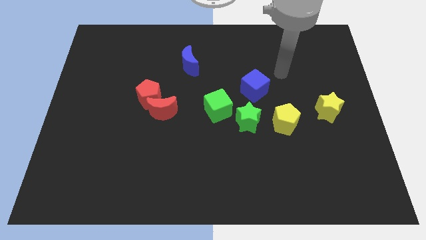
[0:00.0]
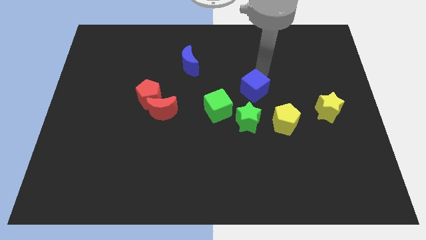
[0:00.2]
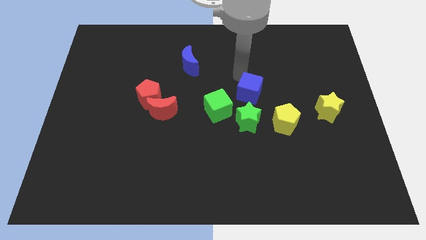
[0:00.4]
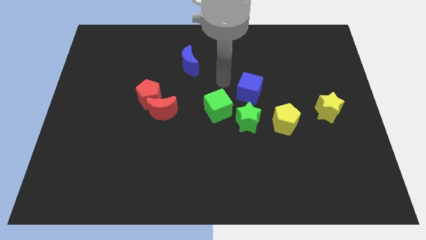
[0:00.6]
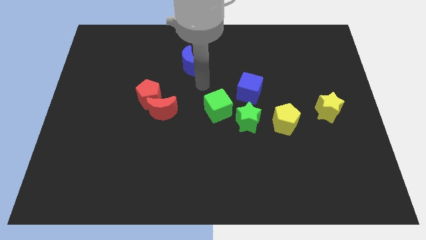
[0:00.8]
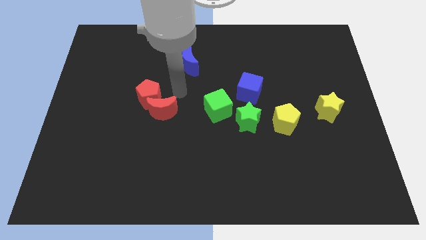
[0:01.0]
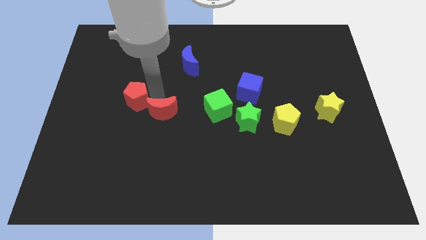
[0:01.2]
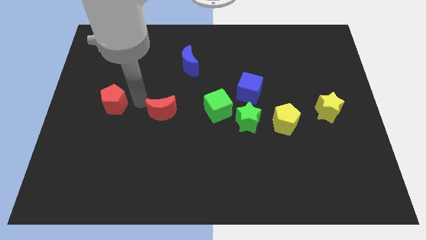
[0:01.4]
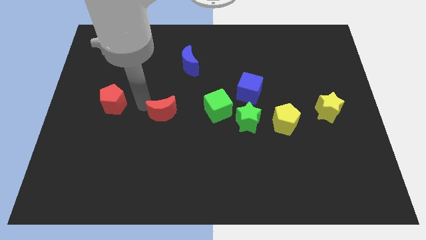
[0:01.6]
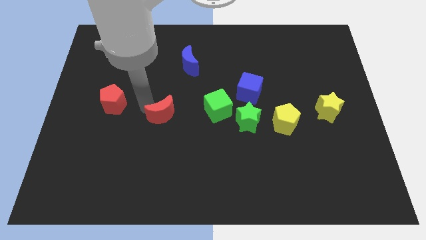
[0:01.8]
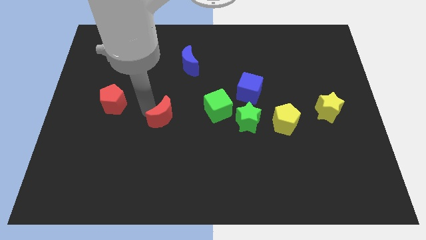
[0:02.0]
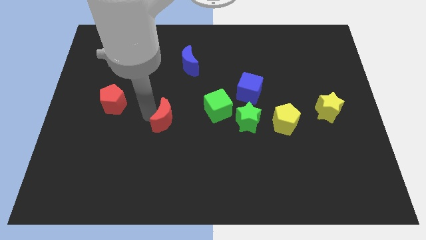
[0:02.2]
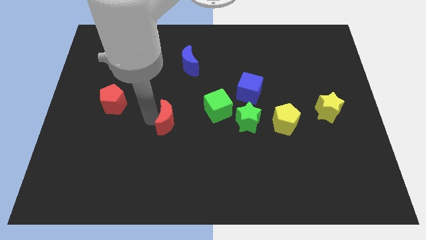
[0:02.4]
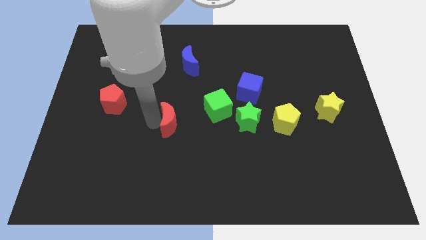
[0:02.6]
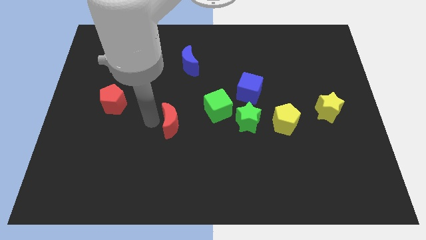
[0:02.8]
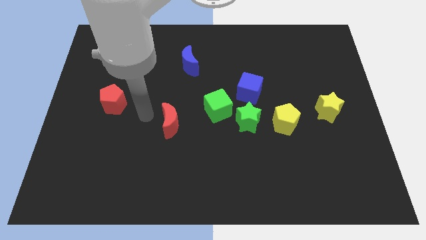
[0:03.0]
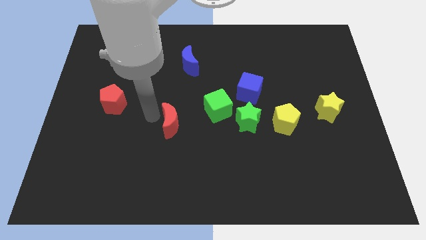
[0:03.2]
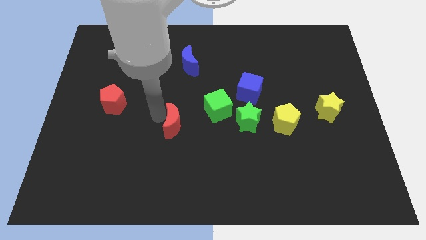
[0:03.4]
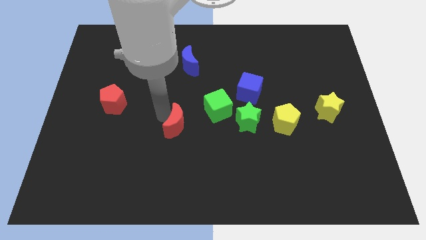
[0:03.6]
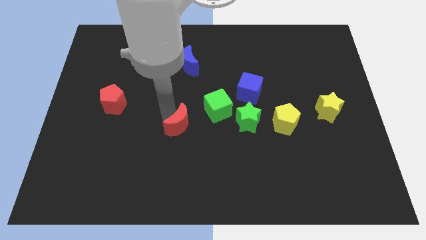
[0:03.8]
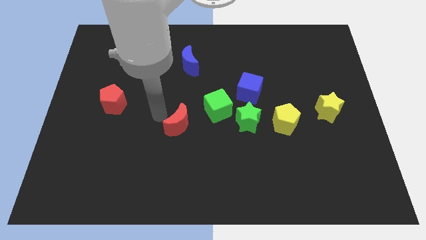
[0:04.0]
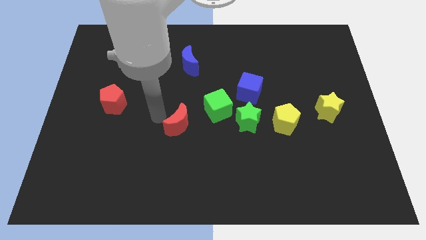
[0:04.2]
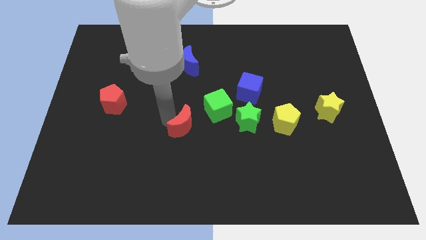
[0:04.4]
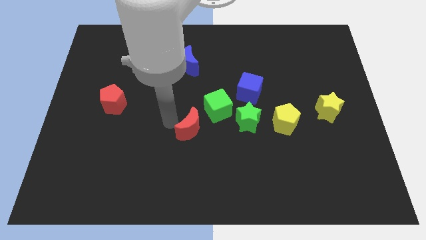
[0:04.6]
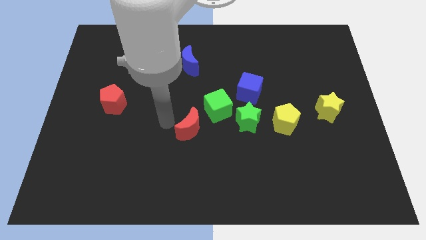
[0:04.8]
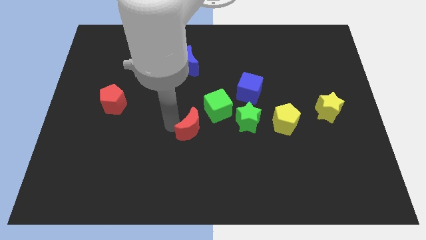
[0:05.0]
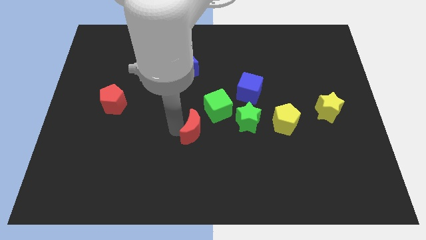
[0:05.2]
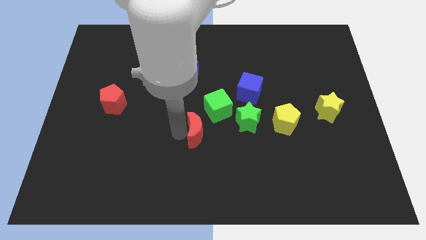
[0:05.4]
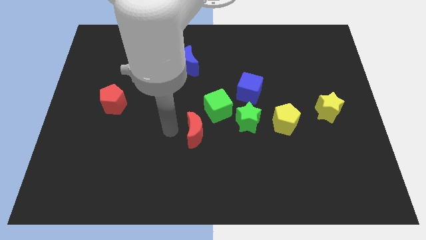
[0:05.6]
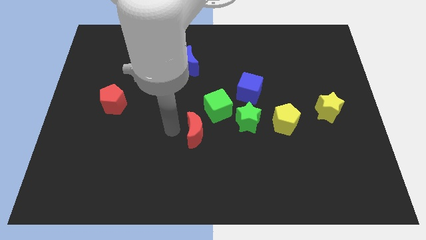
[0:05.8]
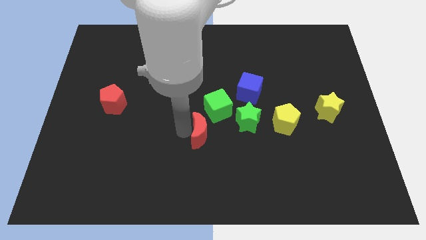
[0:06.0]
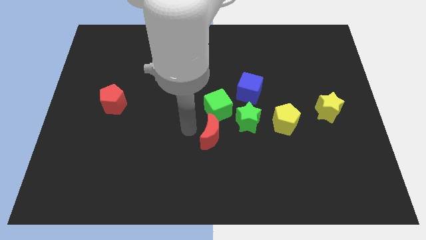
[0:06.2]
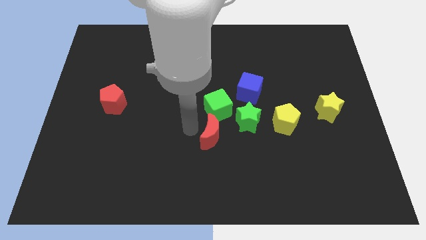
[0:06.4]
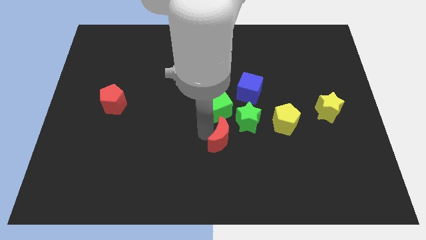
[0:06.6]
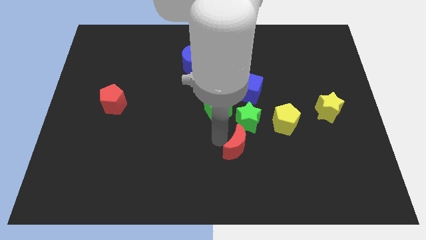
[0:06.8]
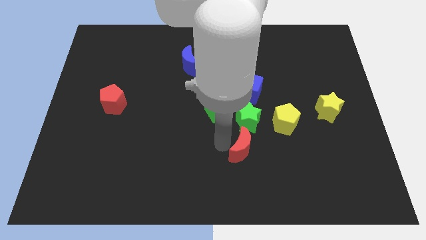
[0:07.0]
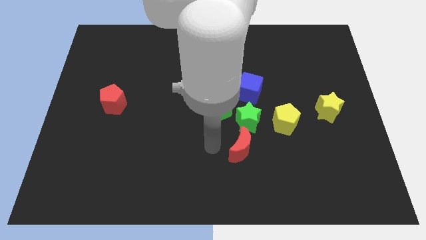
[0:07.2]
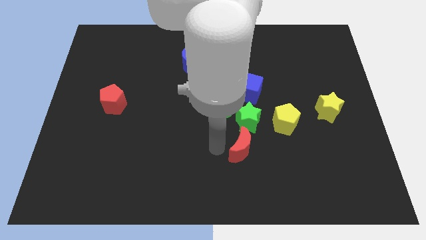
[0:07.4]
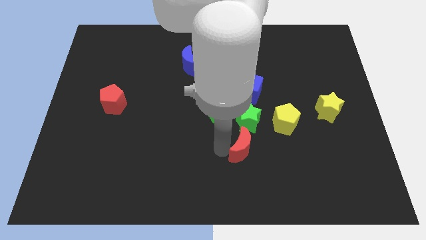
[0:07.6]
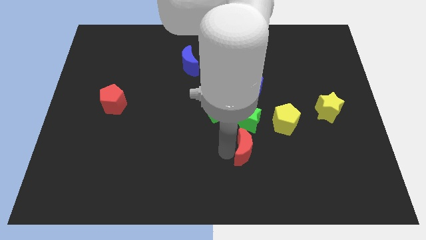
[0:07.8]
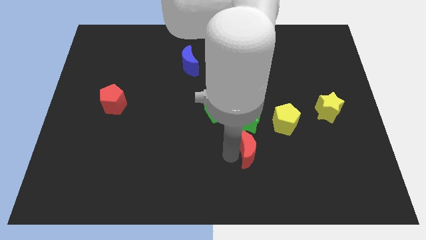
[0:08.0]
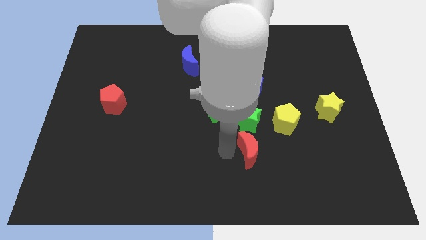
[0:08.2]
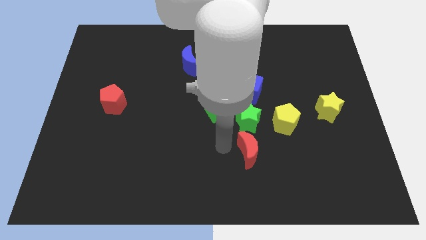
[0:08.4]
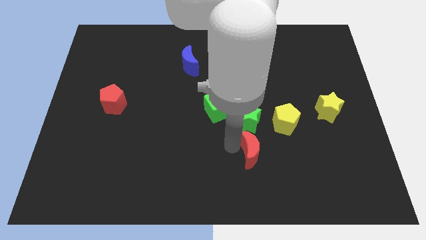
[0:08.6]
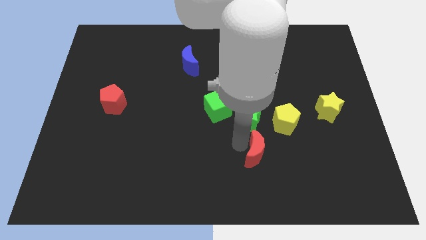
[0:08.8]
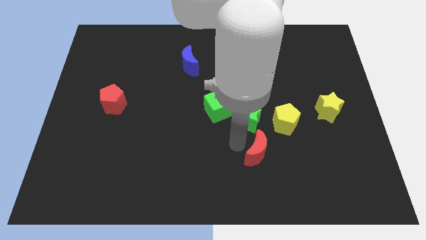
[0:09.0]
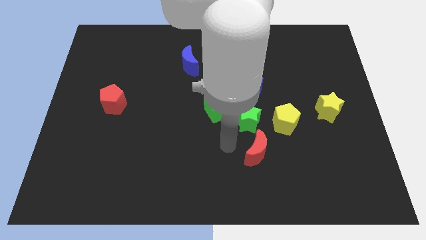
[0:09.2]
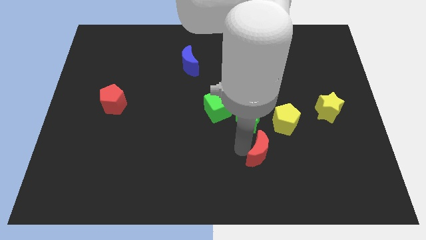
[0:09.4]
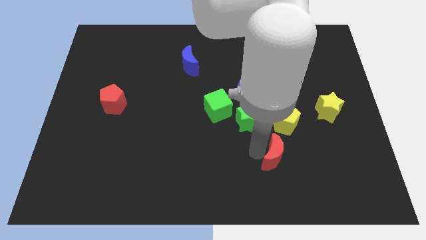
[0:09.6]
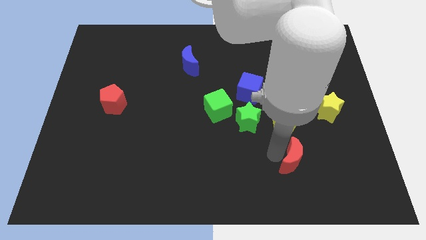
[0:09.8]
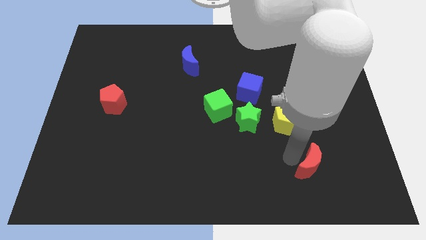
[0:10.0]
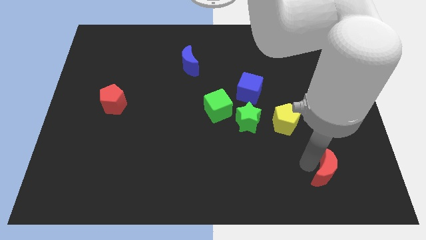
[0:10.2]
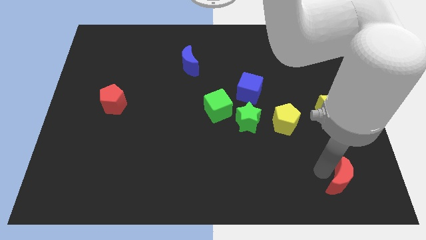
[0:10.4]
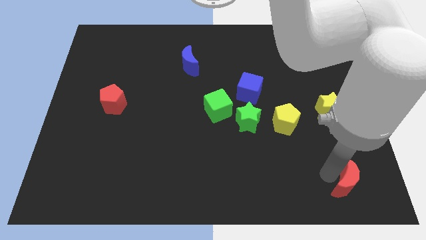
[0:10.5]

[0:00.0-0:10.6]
push the red moon to the lower right corner
